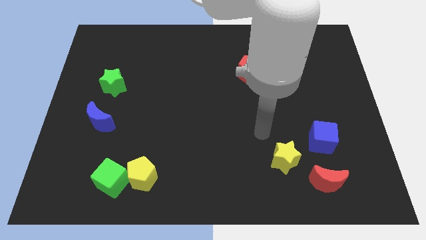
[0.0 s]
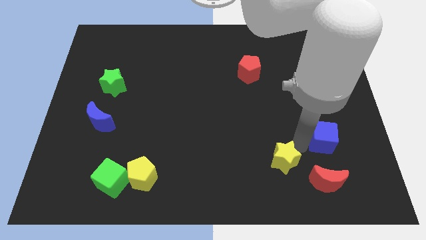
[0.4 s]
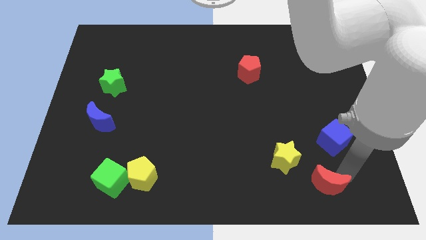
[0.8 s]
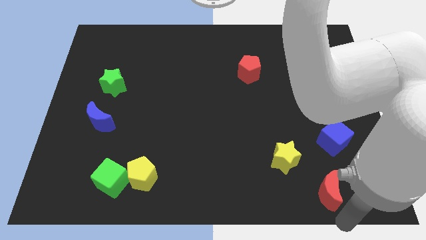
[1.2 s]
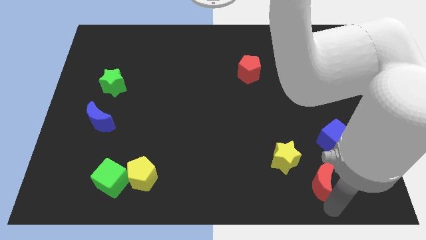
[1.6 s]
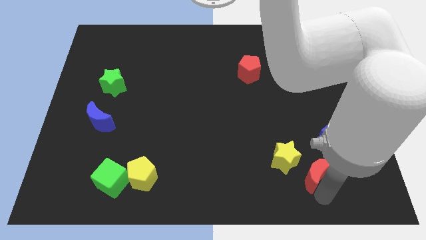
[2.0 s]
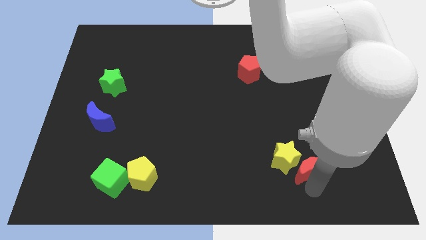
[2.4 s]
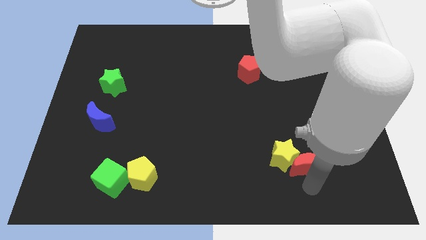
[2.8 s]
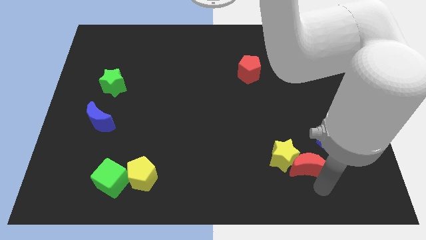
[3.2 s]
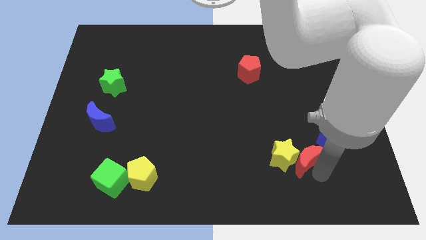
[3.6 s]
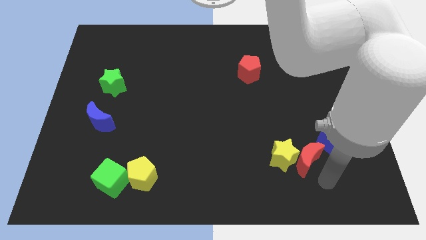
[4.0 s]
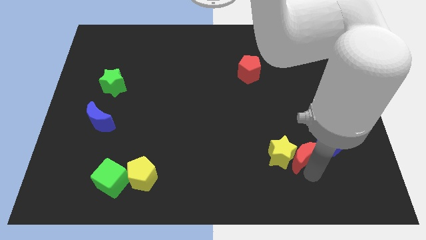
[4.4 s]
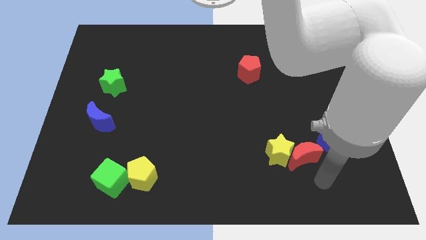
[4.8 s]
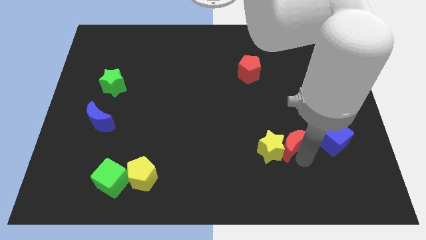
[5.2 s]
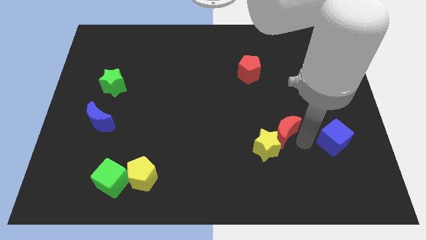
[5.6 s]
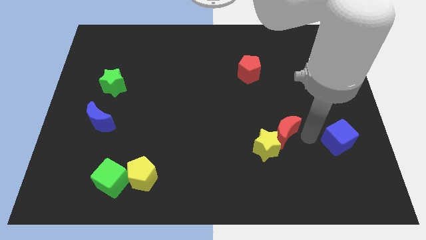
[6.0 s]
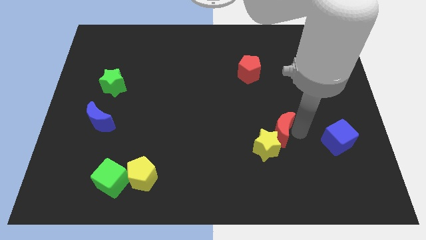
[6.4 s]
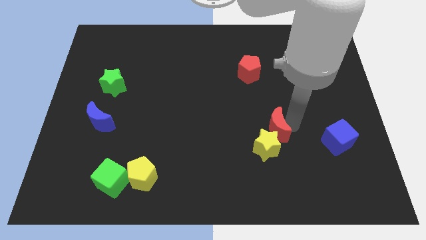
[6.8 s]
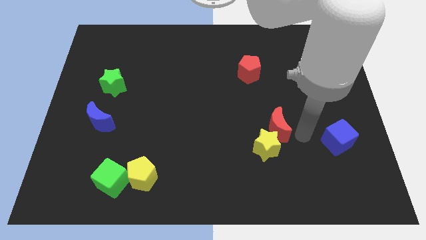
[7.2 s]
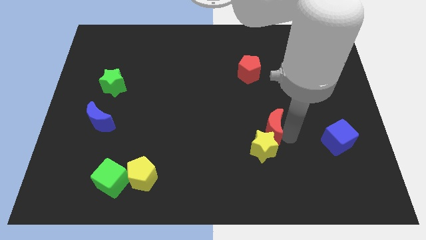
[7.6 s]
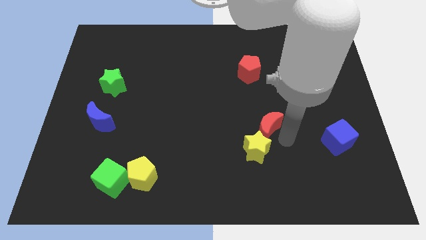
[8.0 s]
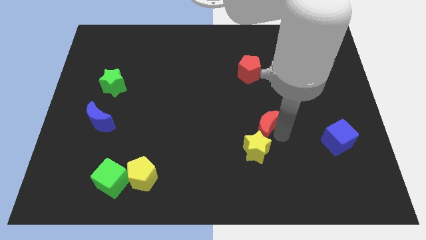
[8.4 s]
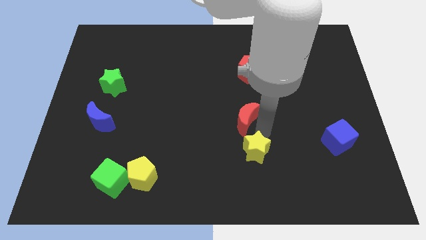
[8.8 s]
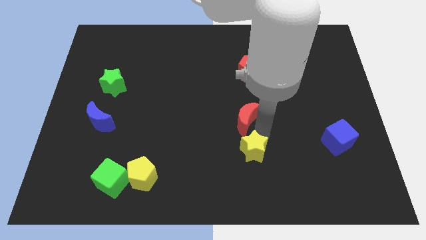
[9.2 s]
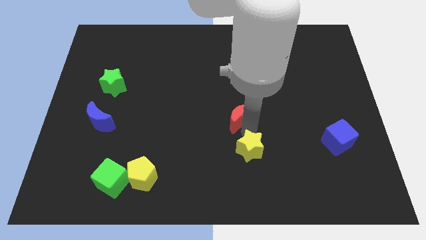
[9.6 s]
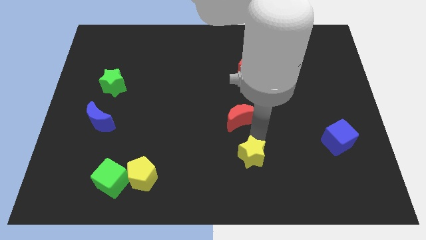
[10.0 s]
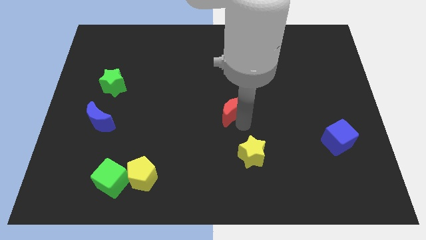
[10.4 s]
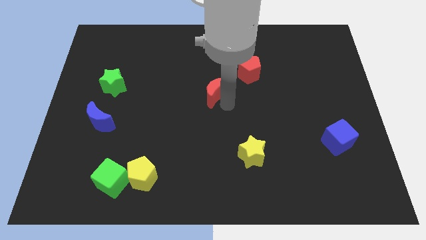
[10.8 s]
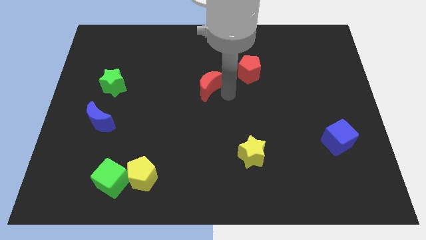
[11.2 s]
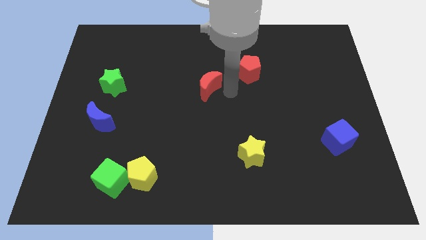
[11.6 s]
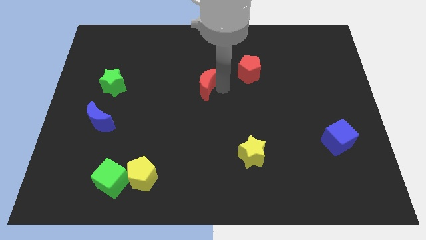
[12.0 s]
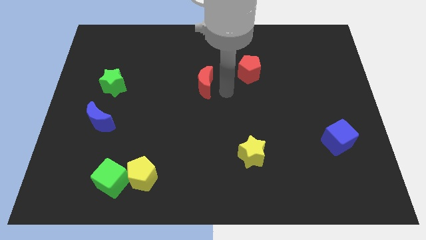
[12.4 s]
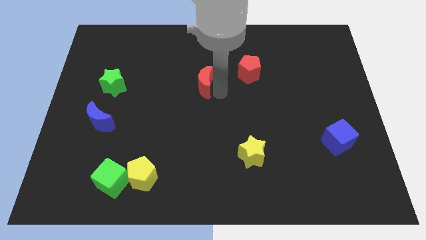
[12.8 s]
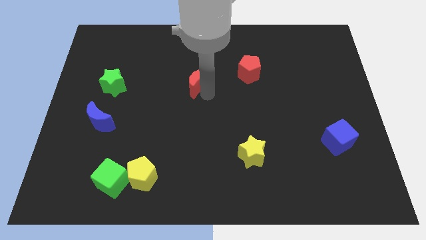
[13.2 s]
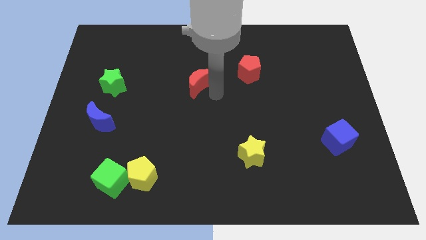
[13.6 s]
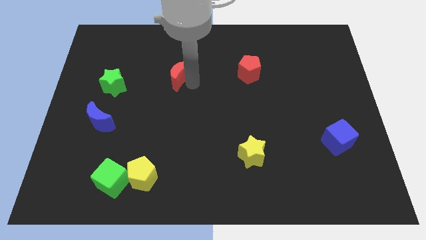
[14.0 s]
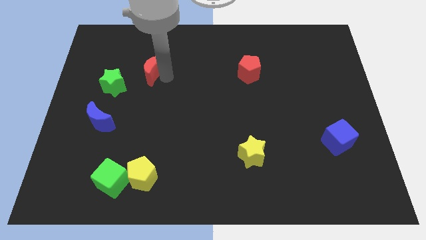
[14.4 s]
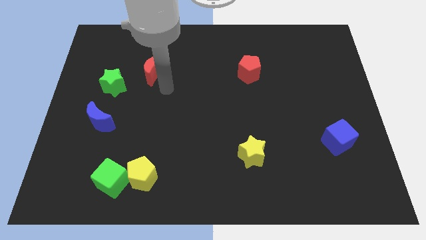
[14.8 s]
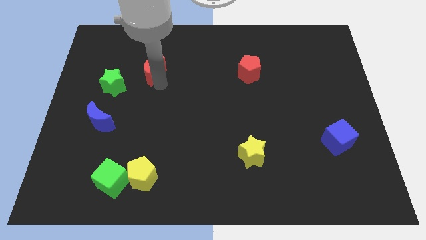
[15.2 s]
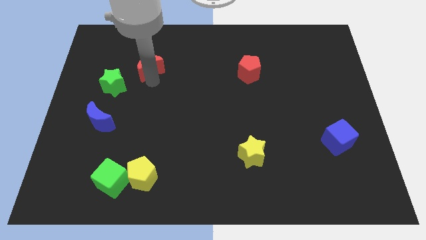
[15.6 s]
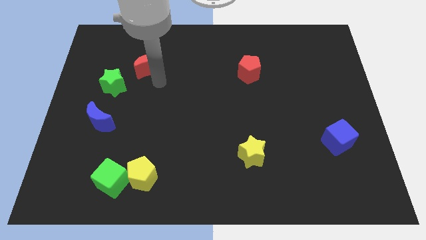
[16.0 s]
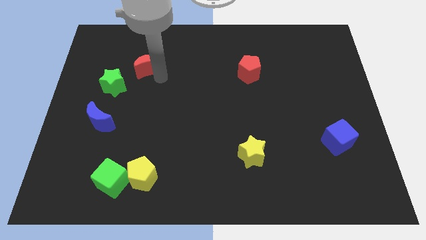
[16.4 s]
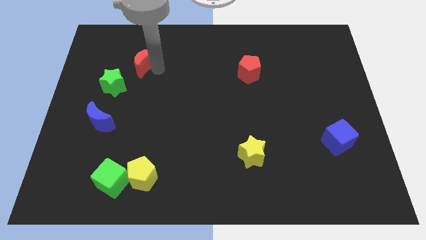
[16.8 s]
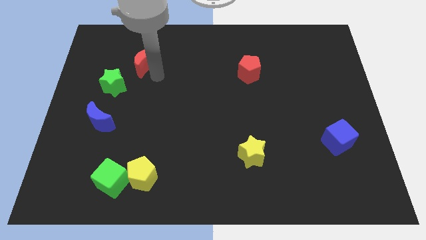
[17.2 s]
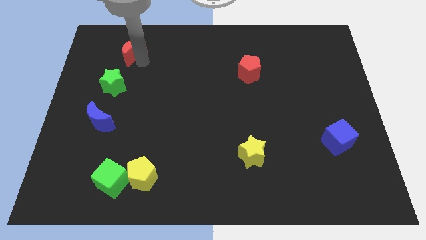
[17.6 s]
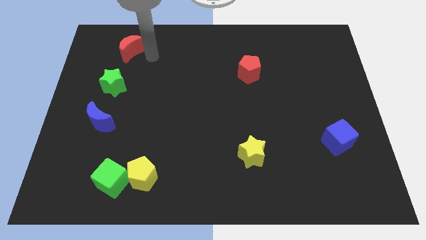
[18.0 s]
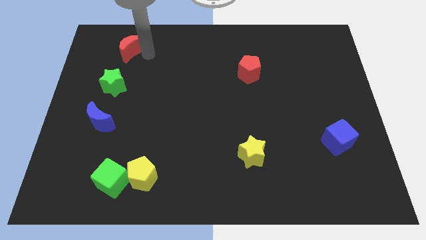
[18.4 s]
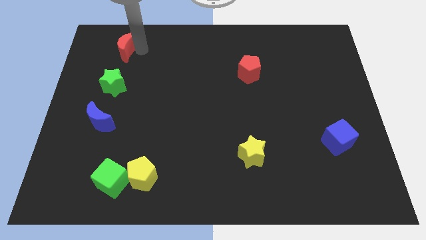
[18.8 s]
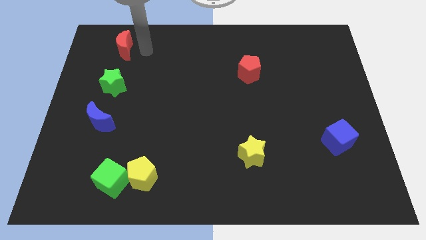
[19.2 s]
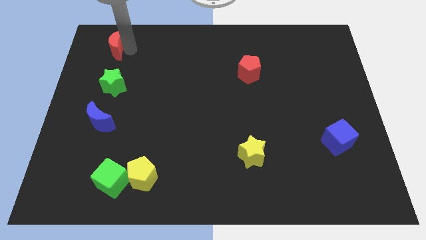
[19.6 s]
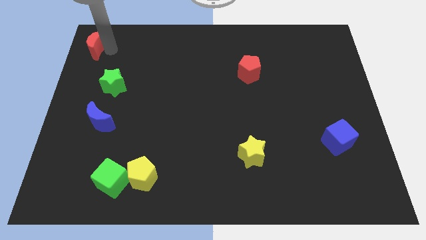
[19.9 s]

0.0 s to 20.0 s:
move the red moon to the top left corner

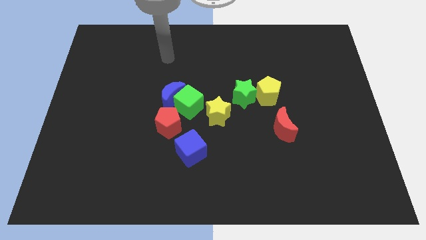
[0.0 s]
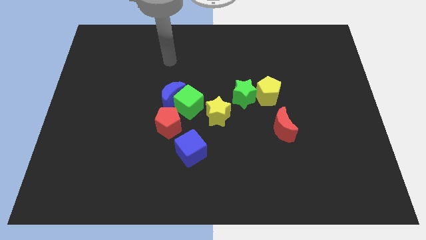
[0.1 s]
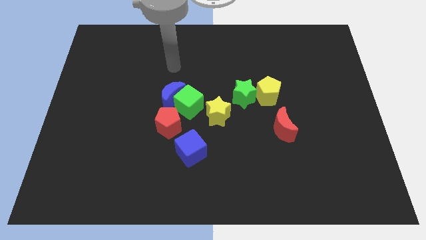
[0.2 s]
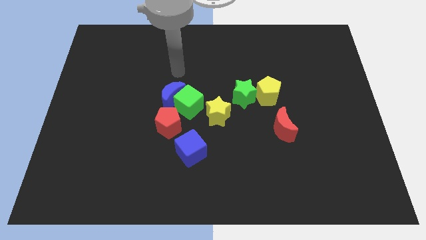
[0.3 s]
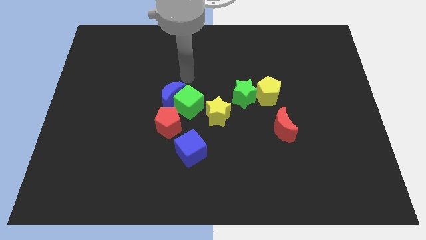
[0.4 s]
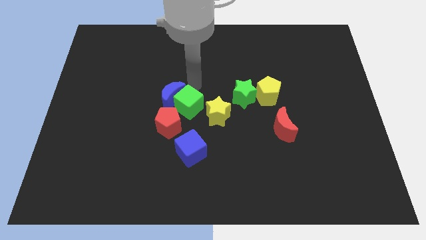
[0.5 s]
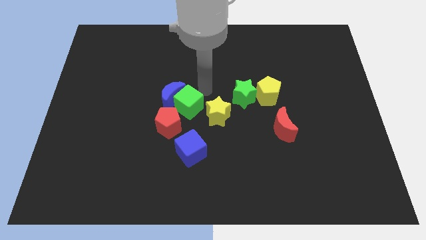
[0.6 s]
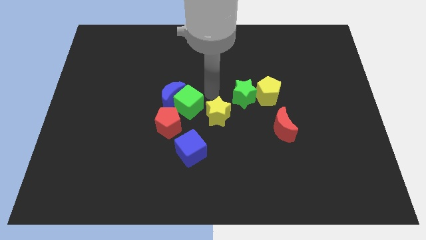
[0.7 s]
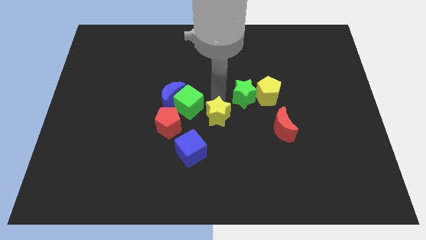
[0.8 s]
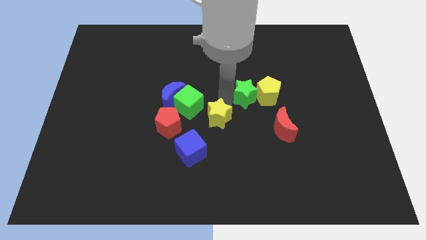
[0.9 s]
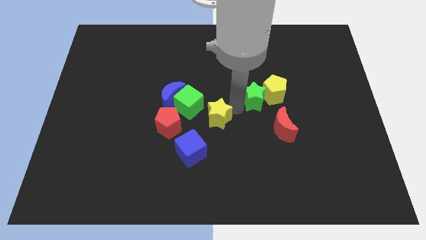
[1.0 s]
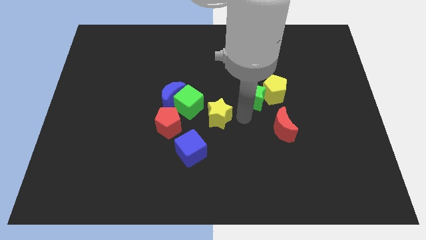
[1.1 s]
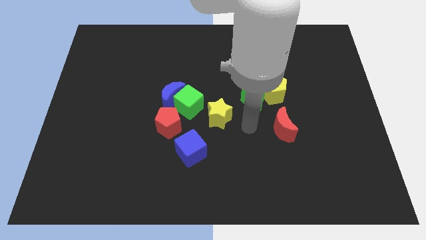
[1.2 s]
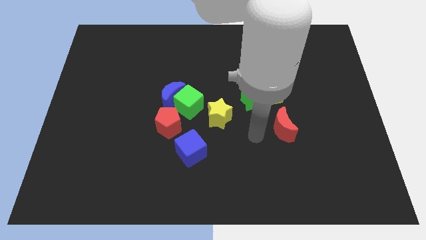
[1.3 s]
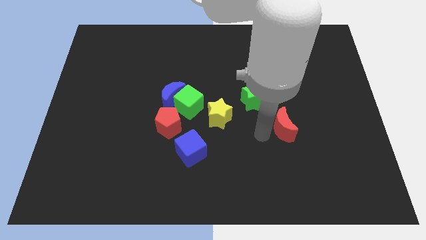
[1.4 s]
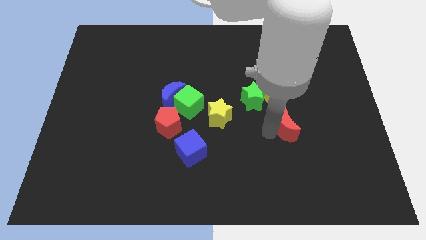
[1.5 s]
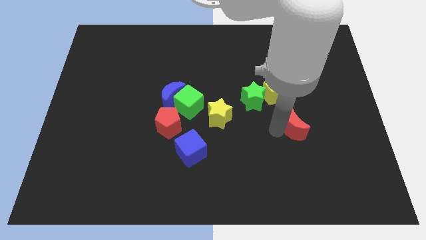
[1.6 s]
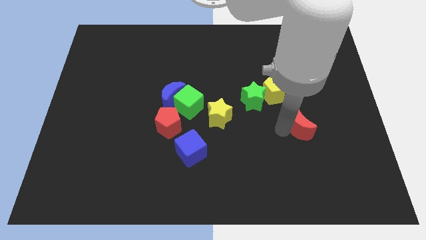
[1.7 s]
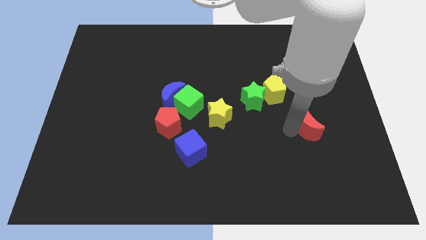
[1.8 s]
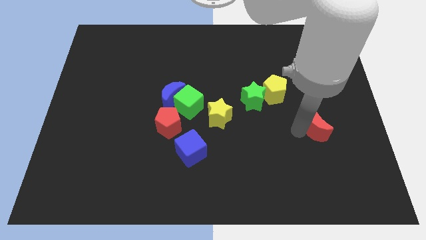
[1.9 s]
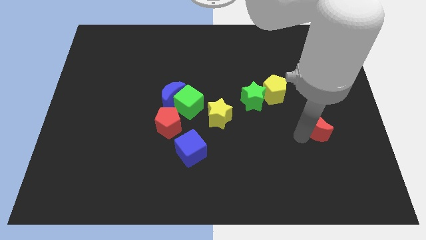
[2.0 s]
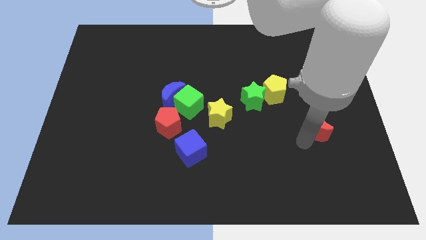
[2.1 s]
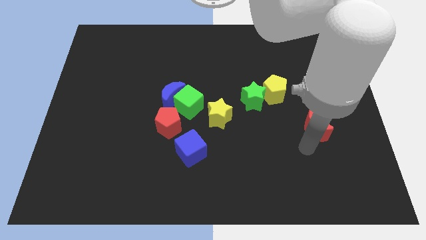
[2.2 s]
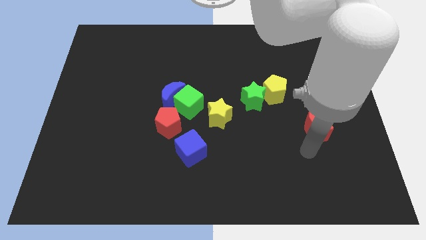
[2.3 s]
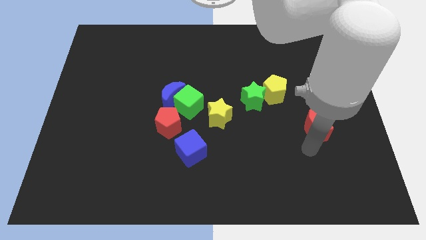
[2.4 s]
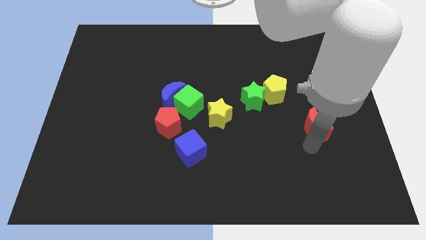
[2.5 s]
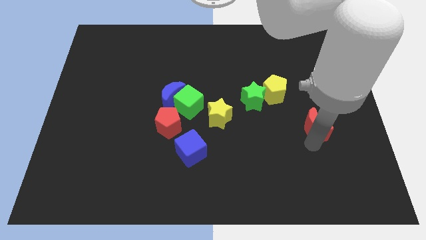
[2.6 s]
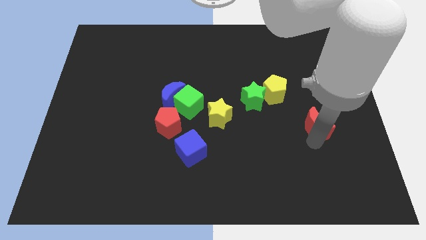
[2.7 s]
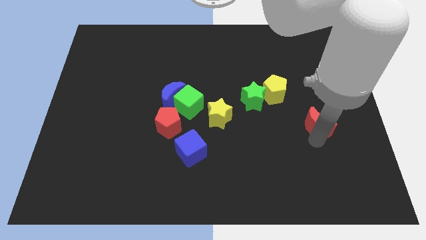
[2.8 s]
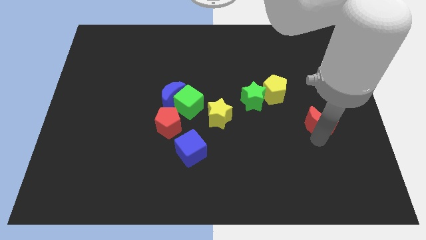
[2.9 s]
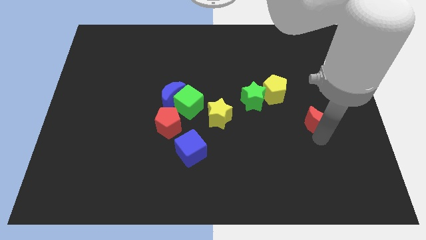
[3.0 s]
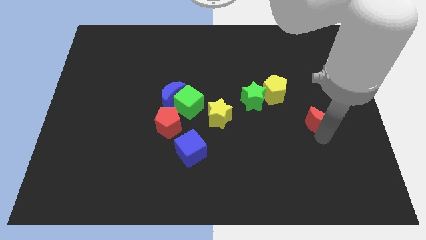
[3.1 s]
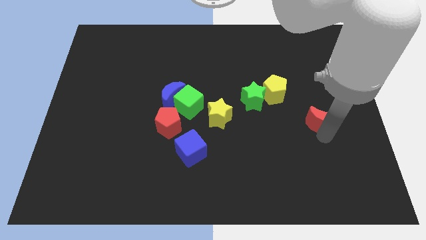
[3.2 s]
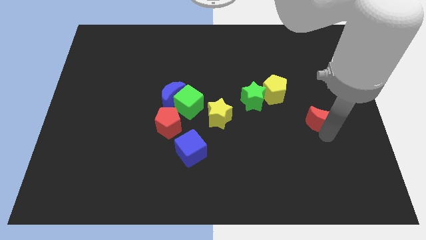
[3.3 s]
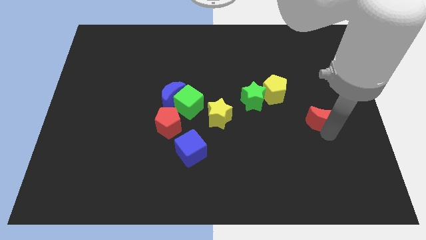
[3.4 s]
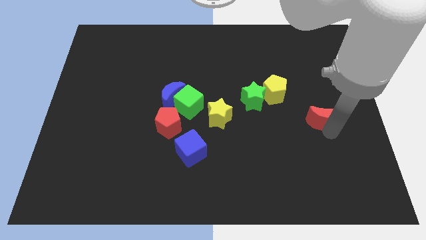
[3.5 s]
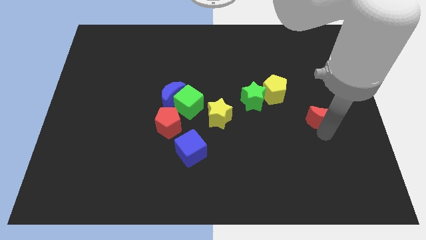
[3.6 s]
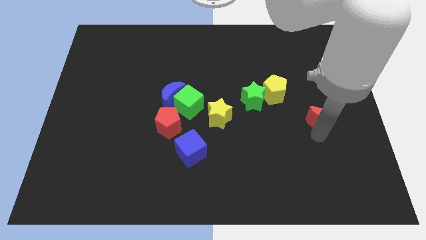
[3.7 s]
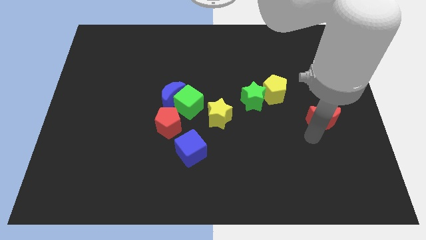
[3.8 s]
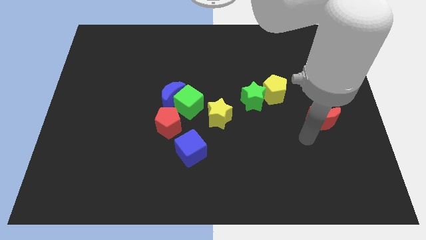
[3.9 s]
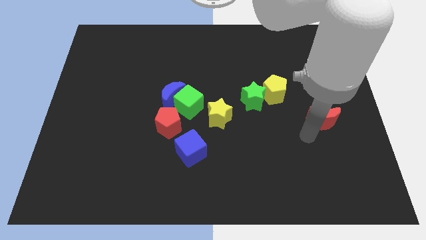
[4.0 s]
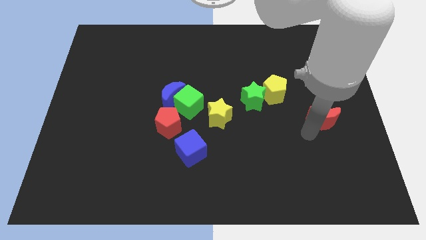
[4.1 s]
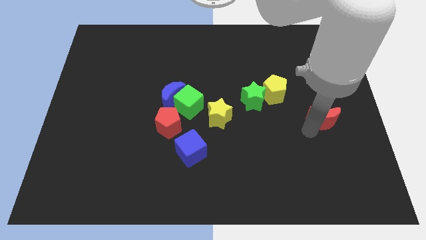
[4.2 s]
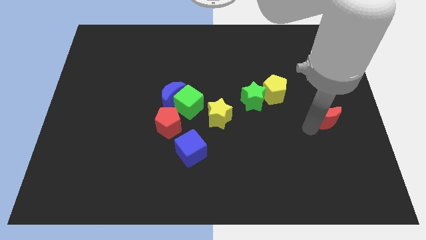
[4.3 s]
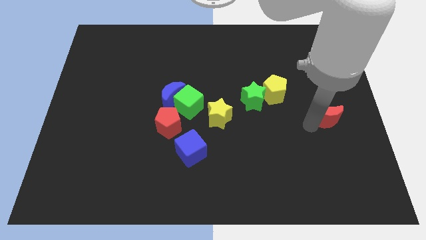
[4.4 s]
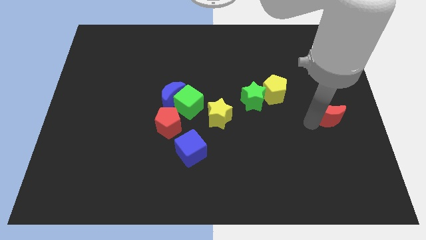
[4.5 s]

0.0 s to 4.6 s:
put the red moon to the right side of the board
